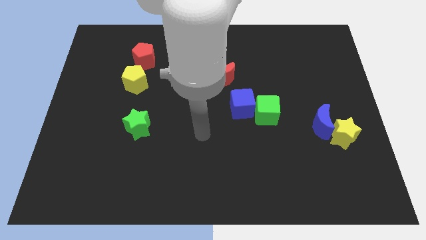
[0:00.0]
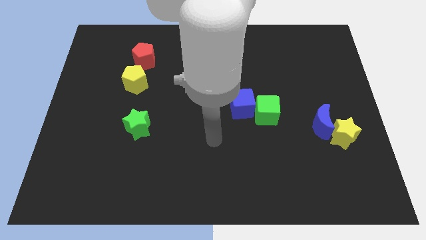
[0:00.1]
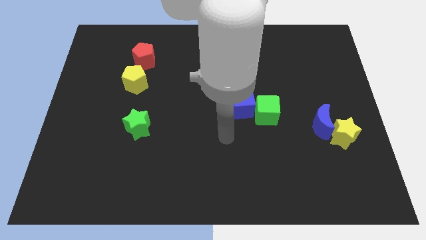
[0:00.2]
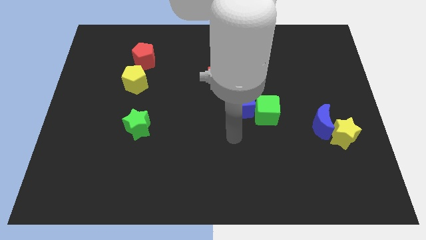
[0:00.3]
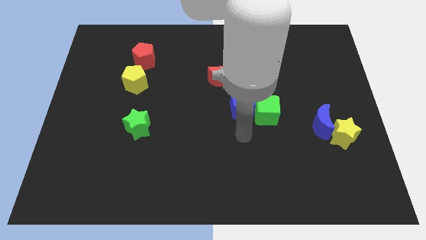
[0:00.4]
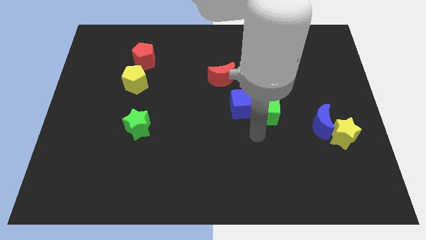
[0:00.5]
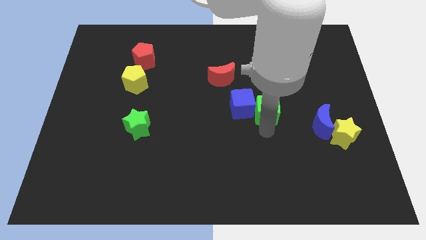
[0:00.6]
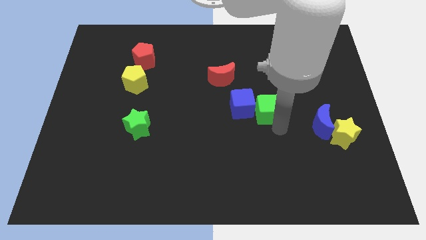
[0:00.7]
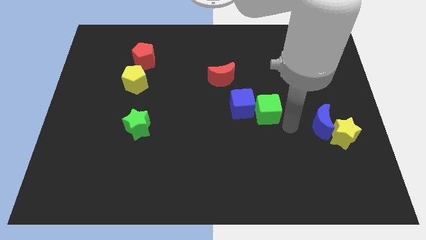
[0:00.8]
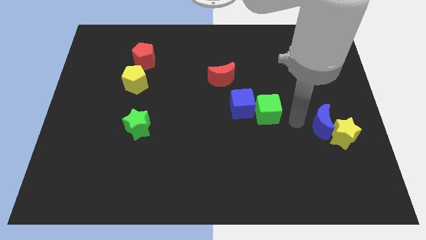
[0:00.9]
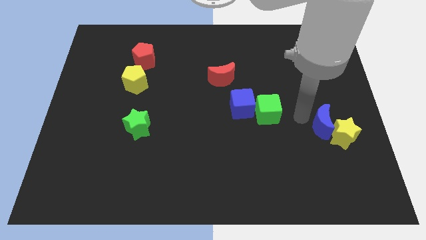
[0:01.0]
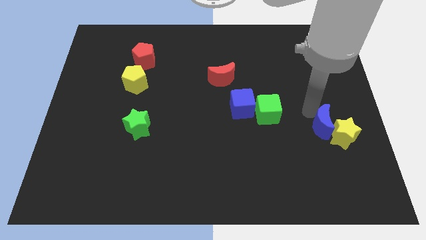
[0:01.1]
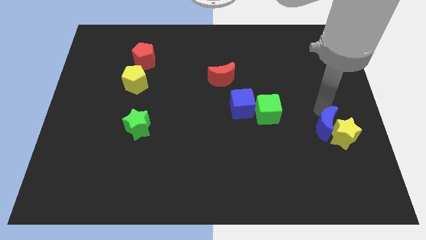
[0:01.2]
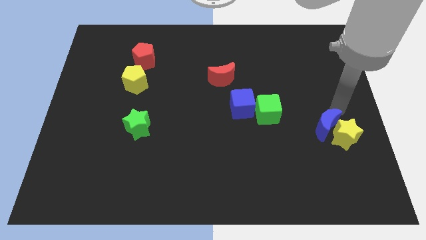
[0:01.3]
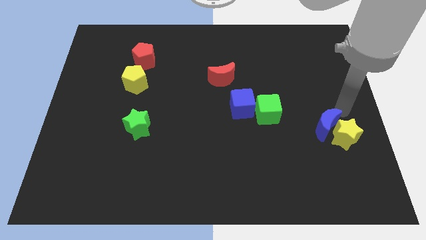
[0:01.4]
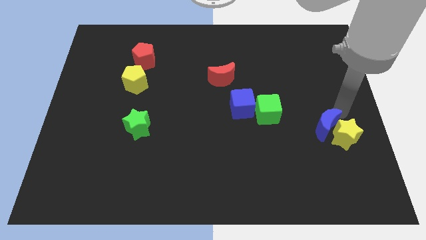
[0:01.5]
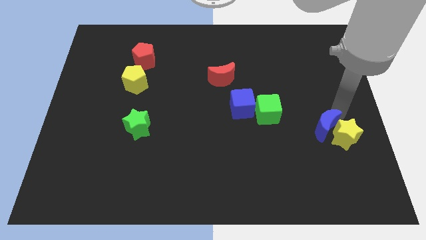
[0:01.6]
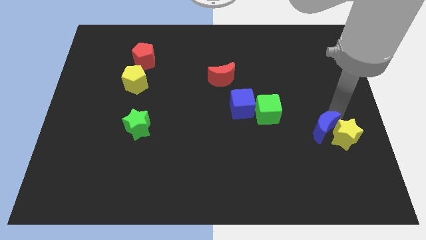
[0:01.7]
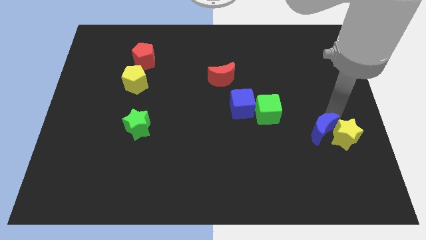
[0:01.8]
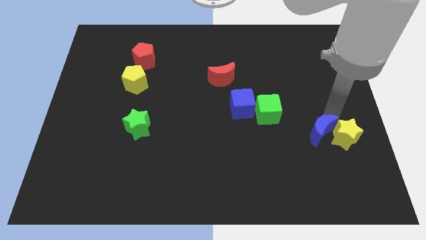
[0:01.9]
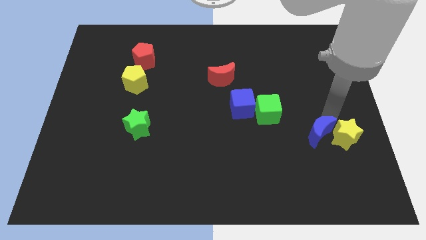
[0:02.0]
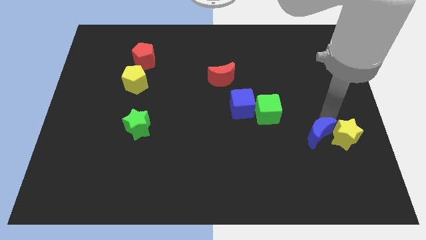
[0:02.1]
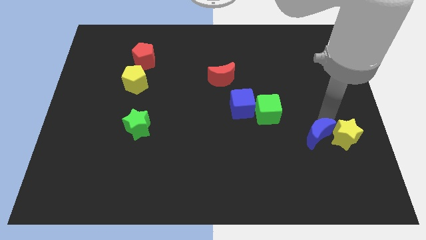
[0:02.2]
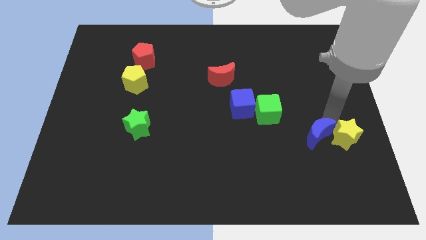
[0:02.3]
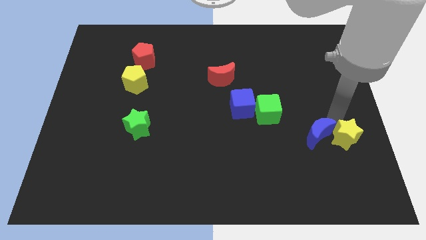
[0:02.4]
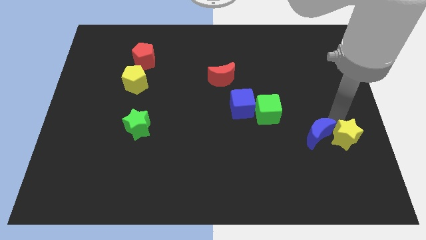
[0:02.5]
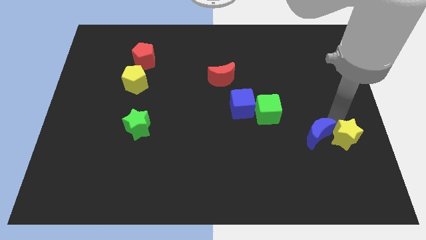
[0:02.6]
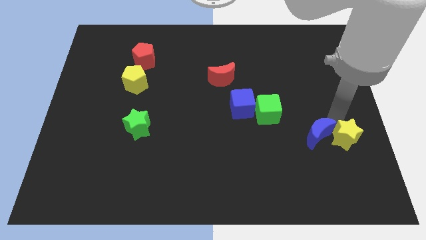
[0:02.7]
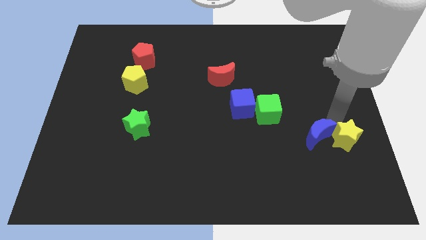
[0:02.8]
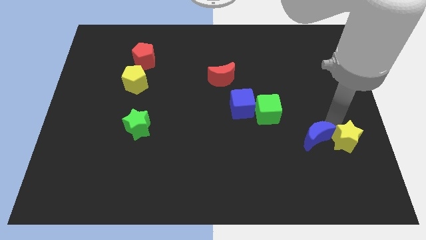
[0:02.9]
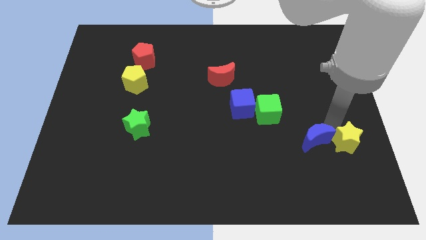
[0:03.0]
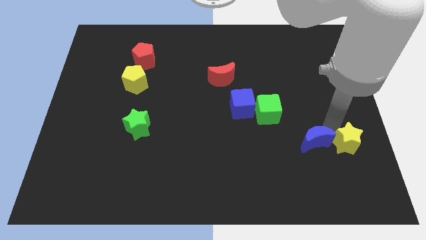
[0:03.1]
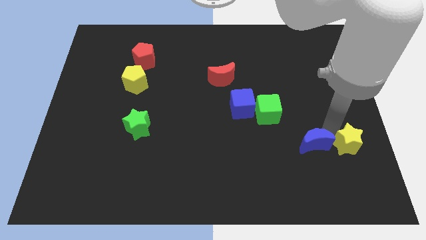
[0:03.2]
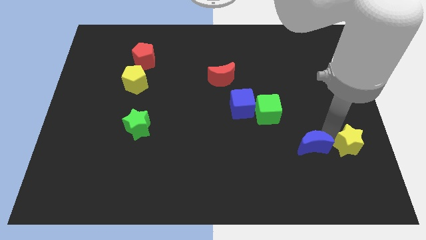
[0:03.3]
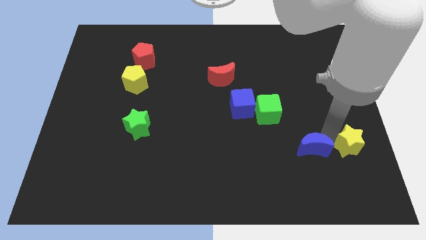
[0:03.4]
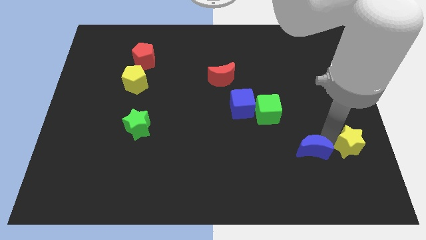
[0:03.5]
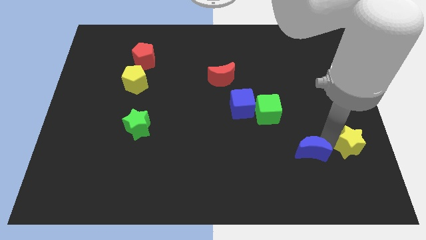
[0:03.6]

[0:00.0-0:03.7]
move the blue moon somewhat down and then left

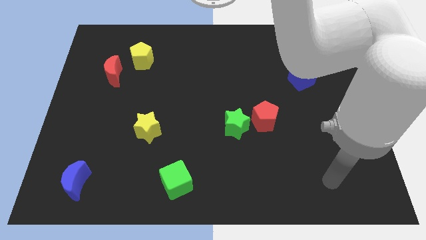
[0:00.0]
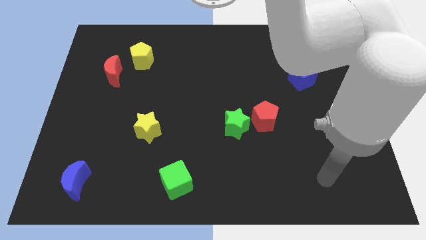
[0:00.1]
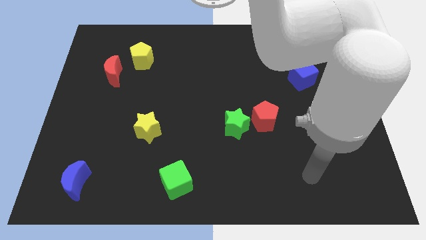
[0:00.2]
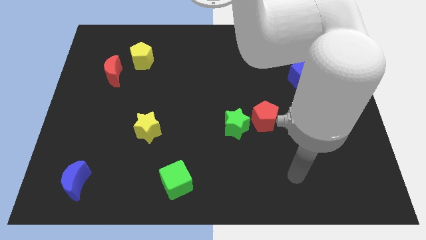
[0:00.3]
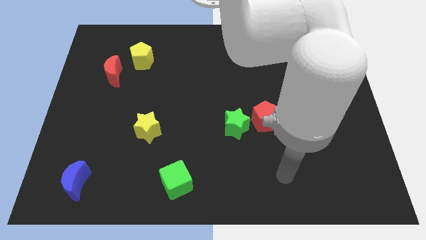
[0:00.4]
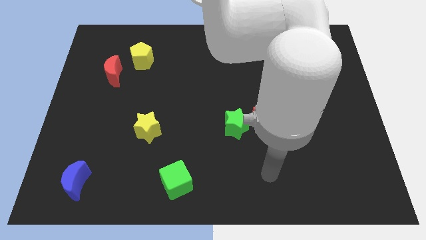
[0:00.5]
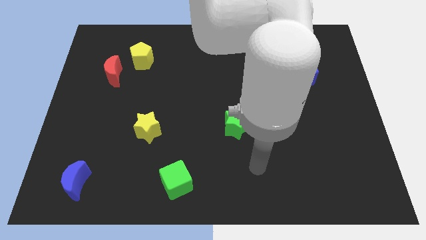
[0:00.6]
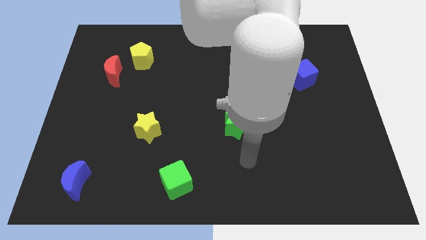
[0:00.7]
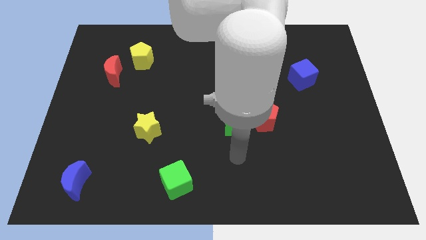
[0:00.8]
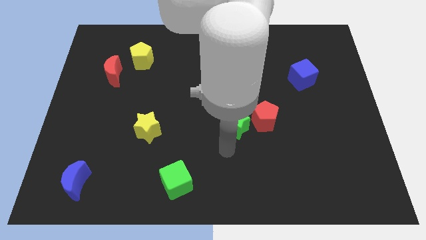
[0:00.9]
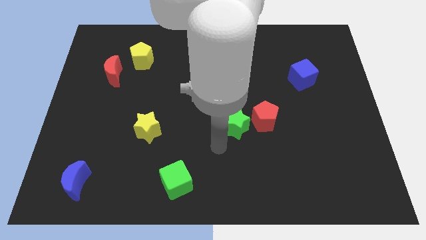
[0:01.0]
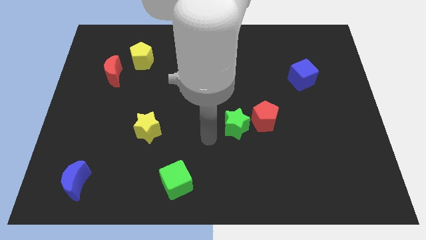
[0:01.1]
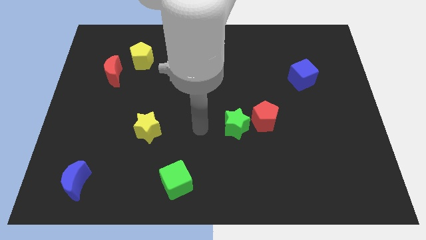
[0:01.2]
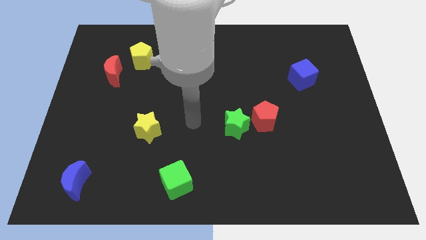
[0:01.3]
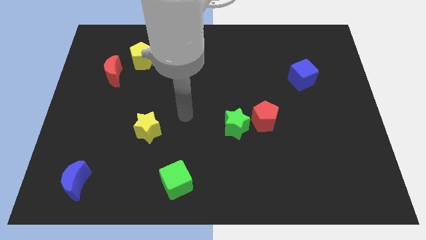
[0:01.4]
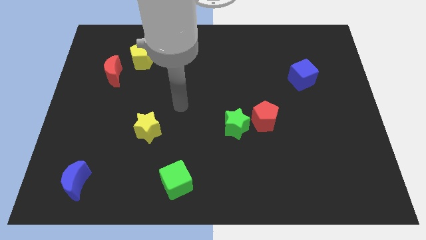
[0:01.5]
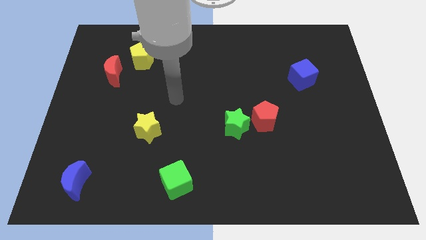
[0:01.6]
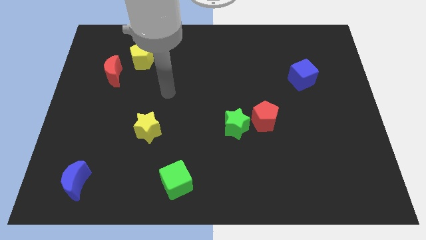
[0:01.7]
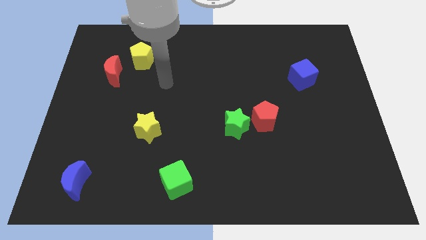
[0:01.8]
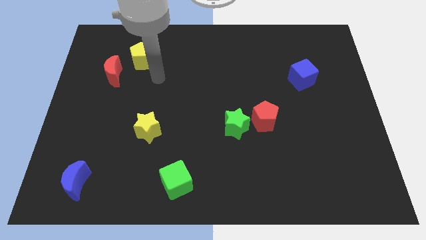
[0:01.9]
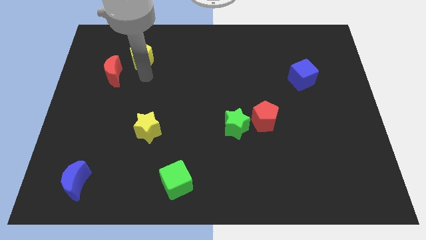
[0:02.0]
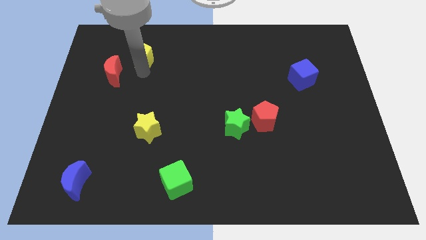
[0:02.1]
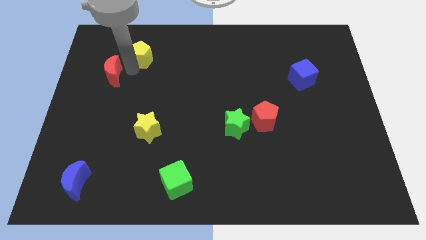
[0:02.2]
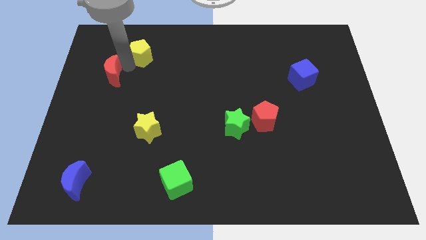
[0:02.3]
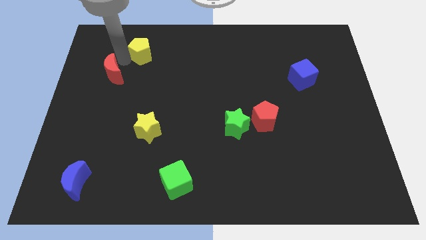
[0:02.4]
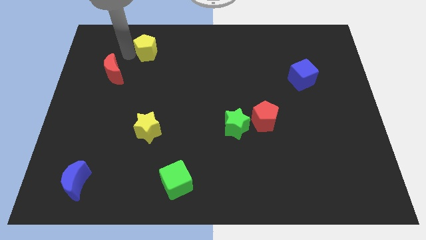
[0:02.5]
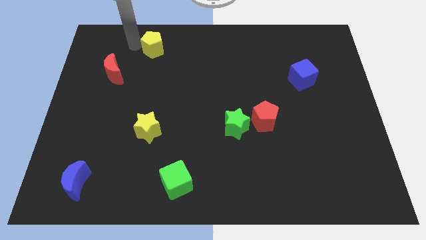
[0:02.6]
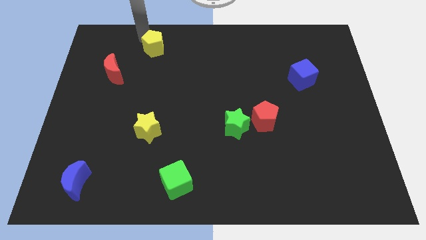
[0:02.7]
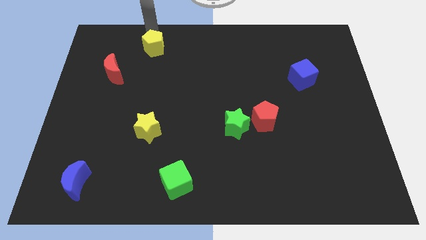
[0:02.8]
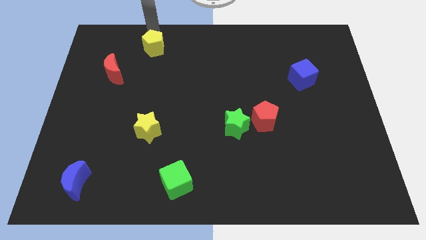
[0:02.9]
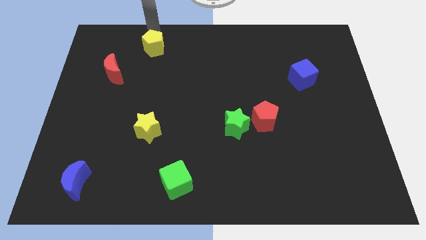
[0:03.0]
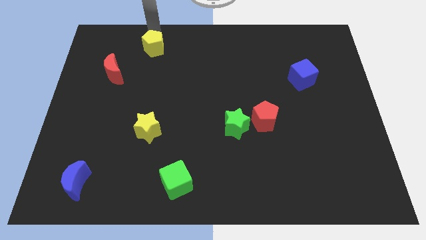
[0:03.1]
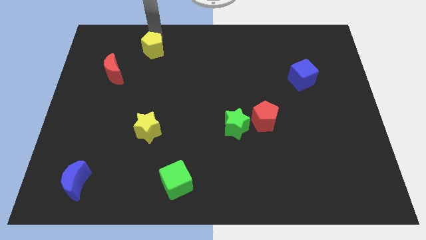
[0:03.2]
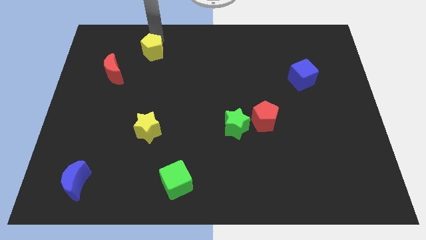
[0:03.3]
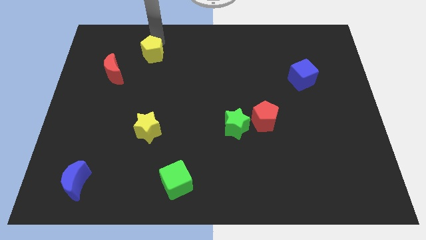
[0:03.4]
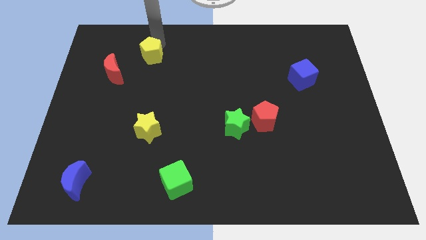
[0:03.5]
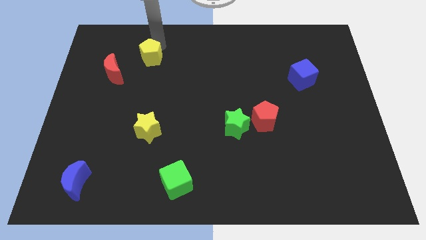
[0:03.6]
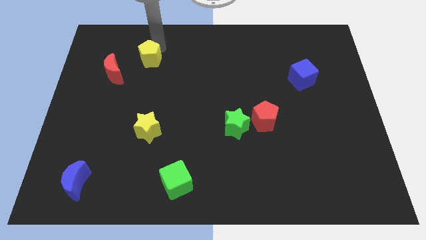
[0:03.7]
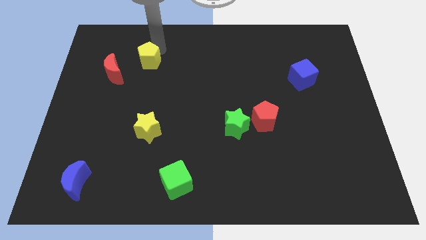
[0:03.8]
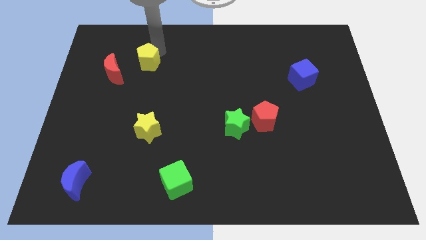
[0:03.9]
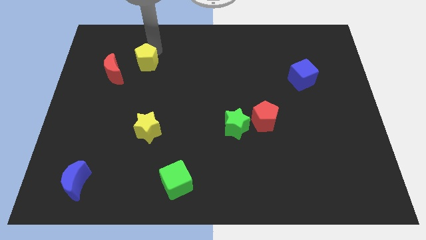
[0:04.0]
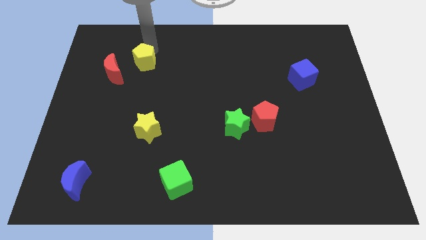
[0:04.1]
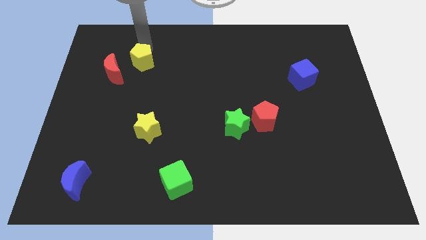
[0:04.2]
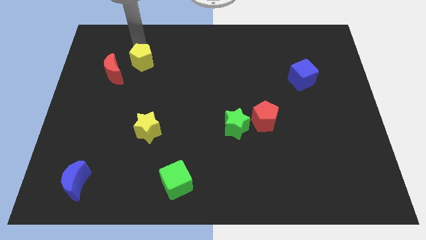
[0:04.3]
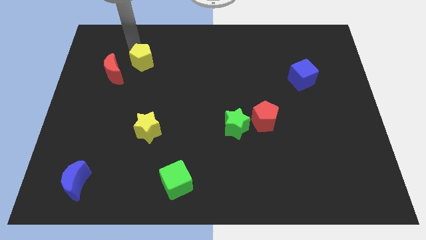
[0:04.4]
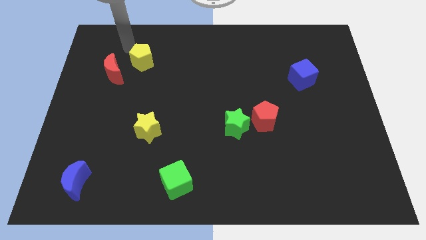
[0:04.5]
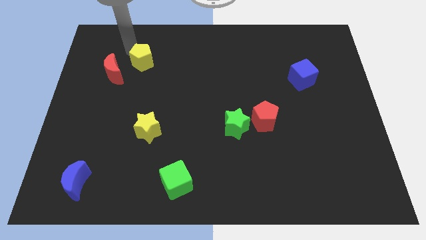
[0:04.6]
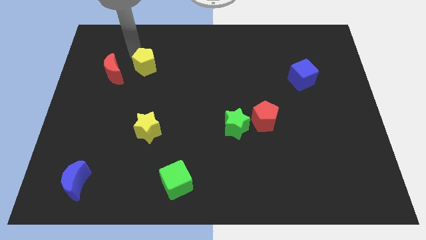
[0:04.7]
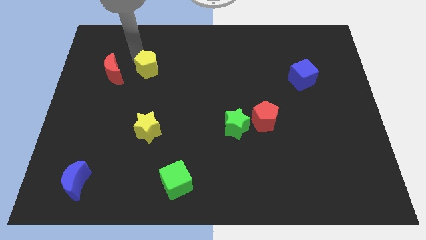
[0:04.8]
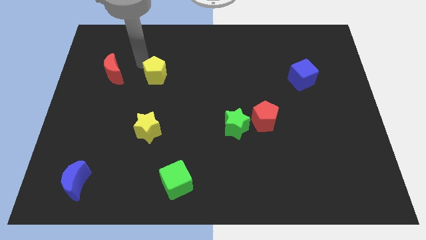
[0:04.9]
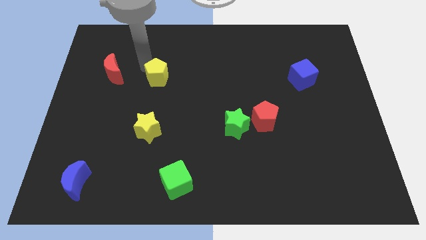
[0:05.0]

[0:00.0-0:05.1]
slide the yellow pentagon down and then right somewhat
